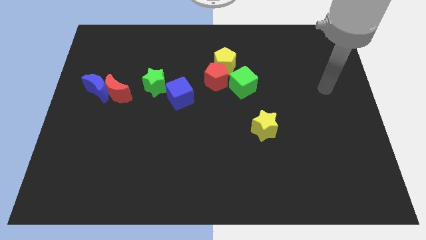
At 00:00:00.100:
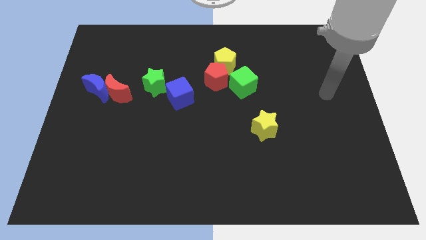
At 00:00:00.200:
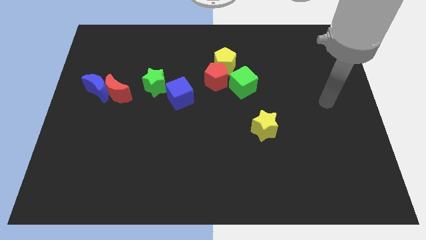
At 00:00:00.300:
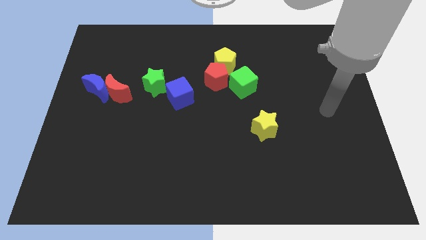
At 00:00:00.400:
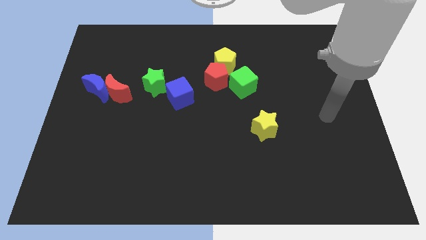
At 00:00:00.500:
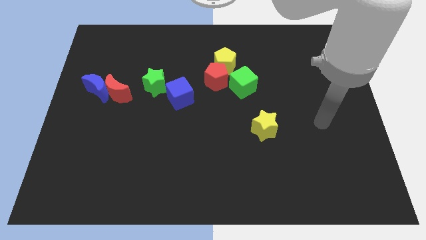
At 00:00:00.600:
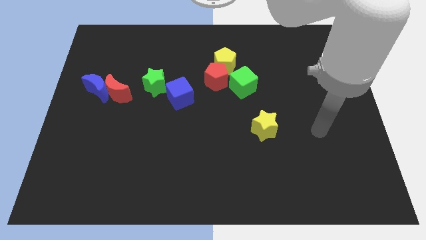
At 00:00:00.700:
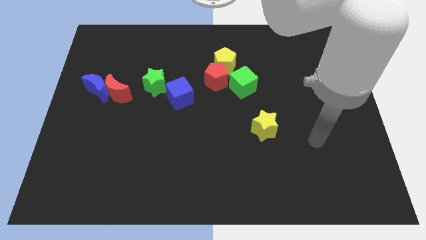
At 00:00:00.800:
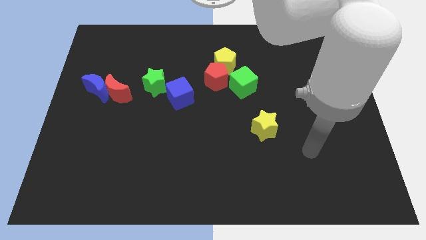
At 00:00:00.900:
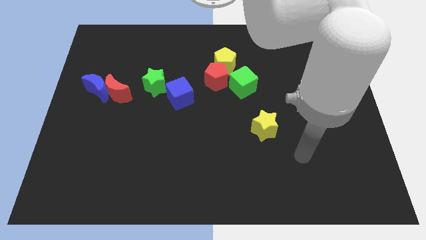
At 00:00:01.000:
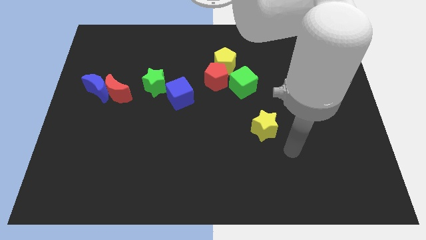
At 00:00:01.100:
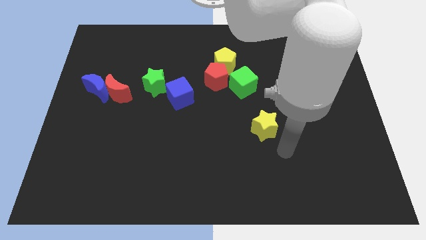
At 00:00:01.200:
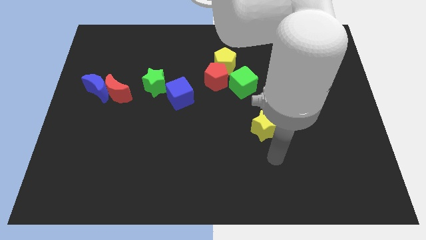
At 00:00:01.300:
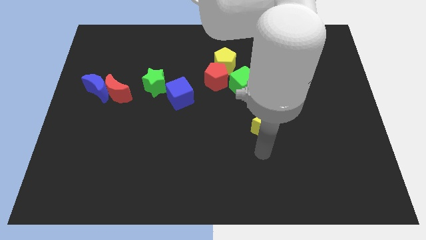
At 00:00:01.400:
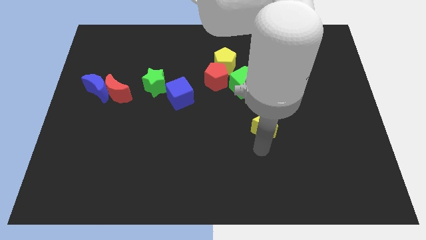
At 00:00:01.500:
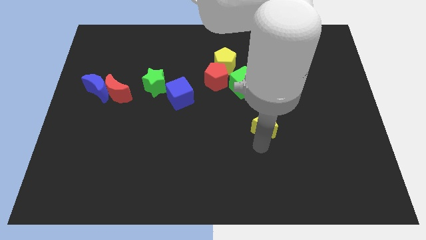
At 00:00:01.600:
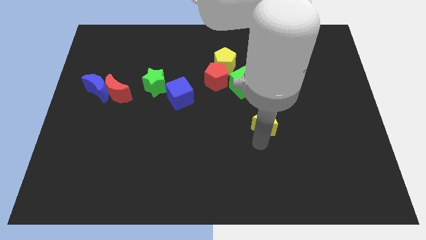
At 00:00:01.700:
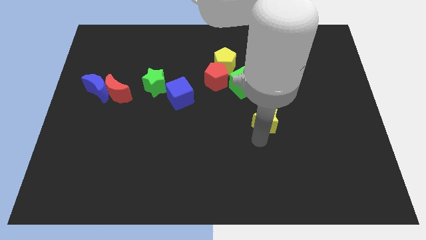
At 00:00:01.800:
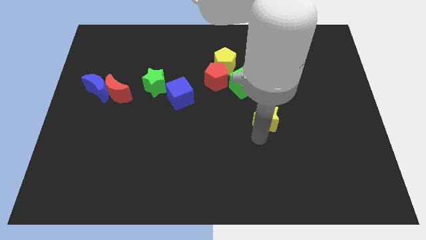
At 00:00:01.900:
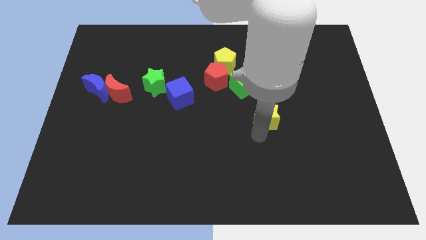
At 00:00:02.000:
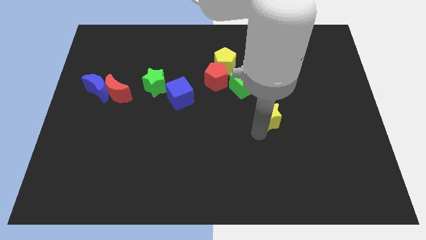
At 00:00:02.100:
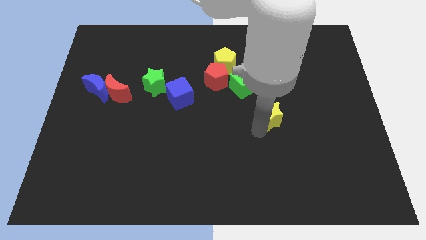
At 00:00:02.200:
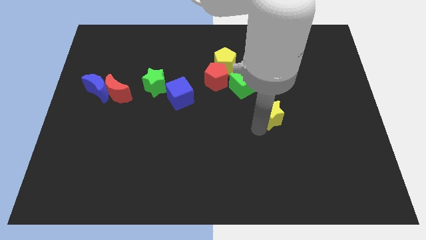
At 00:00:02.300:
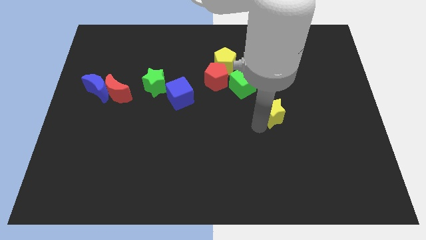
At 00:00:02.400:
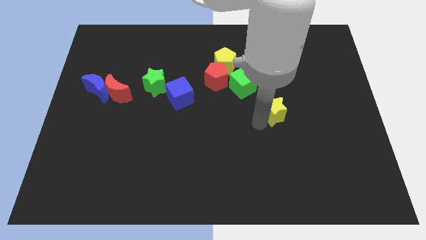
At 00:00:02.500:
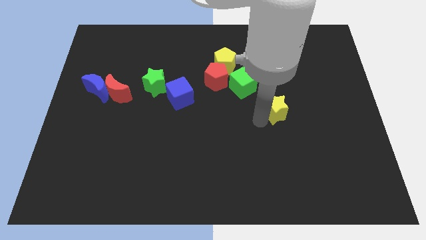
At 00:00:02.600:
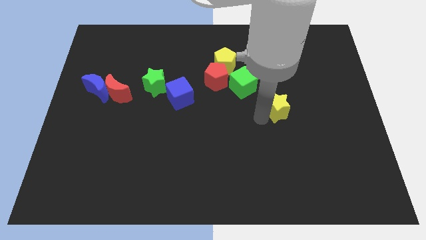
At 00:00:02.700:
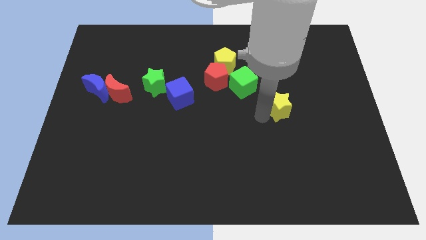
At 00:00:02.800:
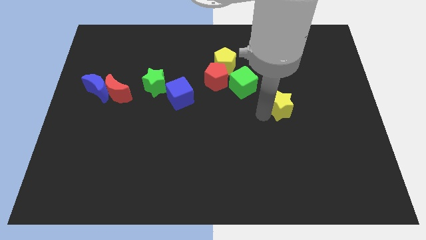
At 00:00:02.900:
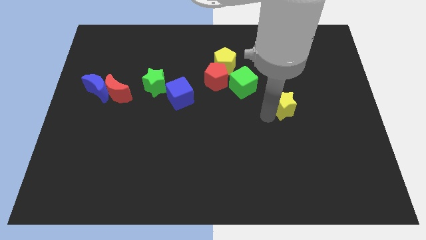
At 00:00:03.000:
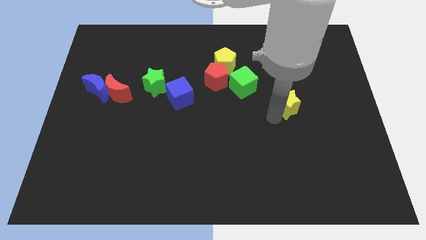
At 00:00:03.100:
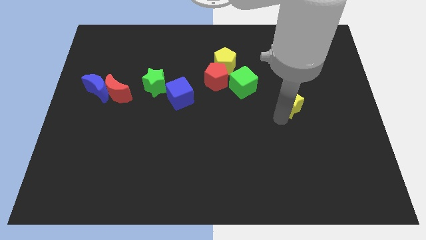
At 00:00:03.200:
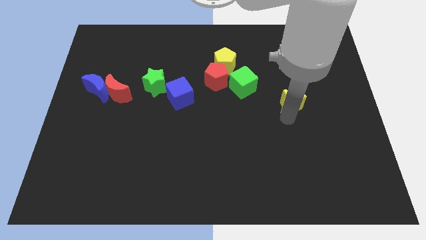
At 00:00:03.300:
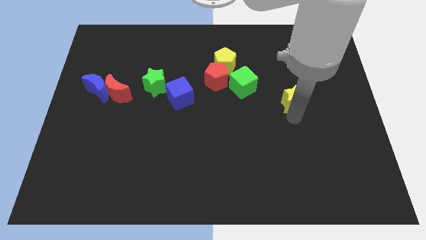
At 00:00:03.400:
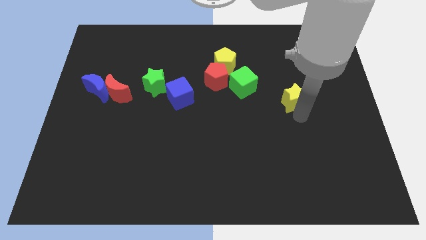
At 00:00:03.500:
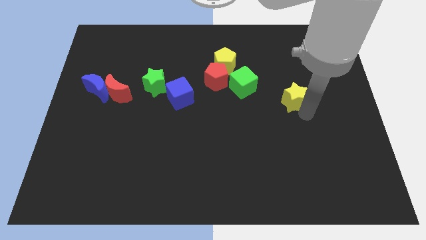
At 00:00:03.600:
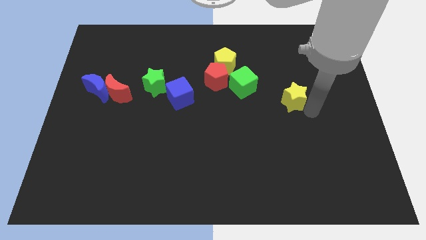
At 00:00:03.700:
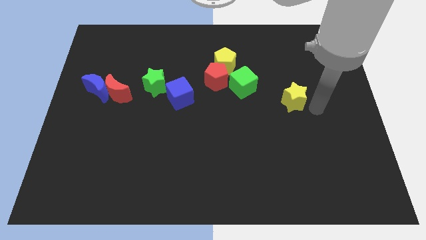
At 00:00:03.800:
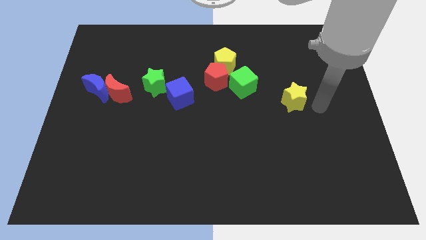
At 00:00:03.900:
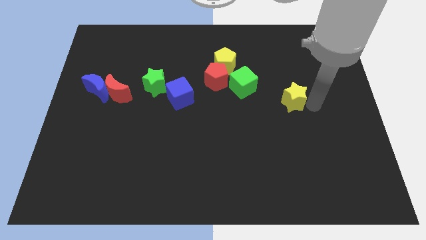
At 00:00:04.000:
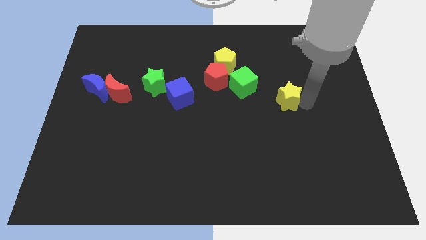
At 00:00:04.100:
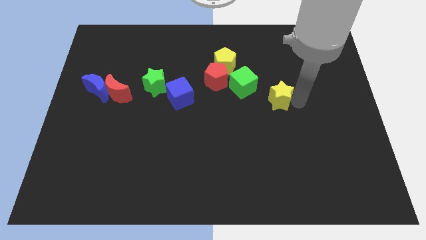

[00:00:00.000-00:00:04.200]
slightly push the yellow star upwards

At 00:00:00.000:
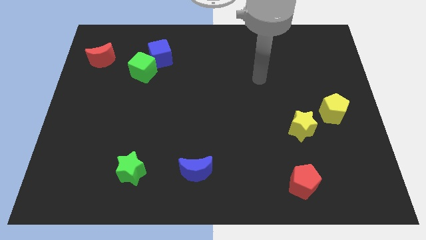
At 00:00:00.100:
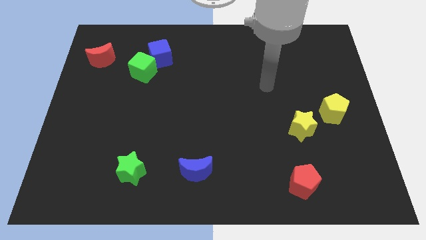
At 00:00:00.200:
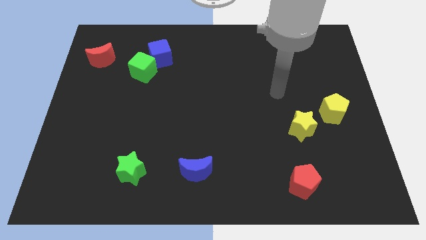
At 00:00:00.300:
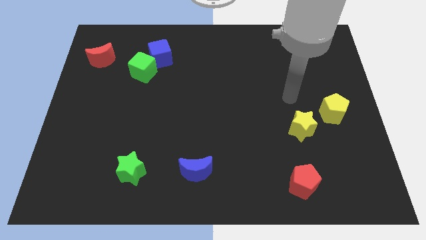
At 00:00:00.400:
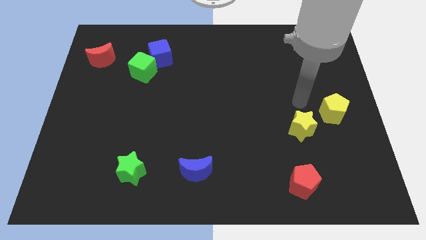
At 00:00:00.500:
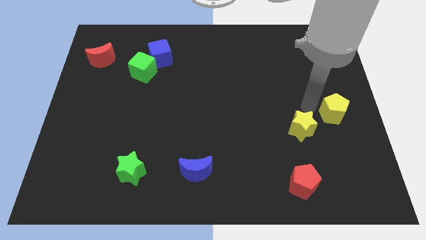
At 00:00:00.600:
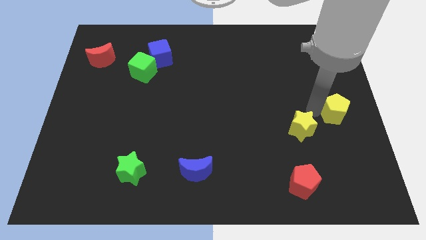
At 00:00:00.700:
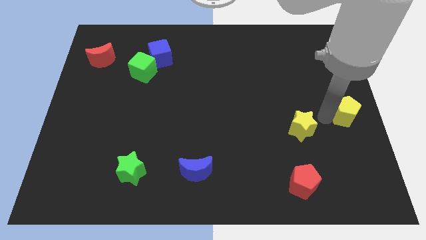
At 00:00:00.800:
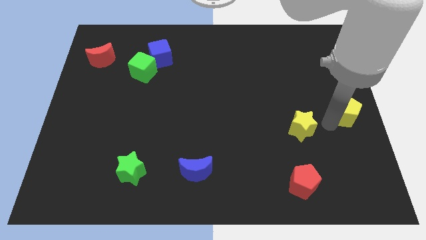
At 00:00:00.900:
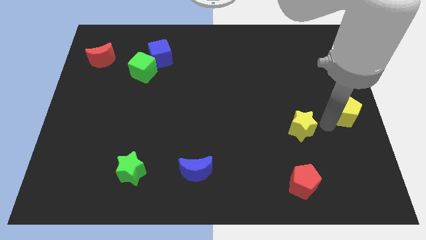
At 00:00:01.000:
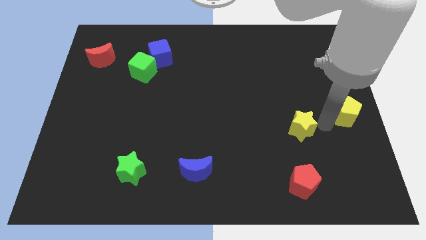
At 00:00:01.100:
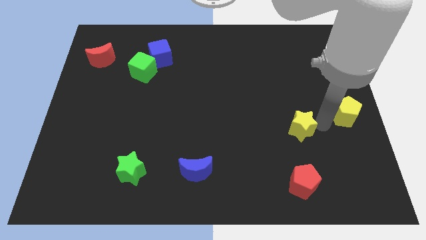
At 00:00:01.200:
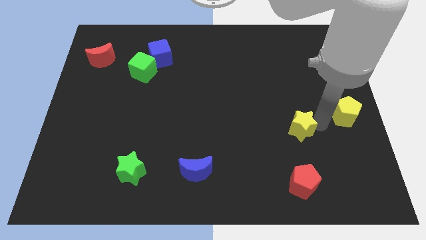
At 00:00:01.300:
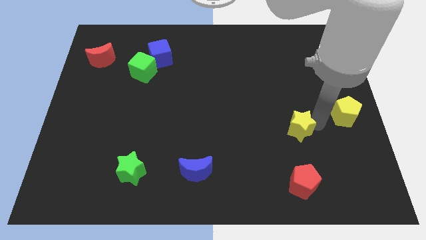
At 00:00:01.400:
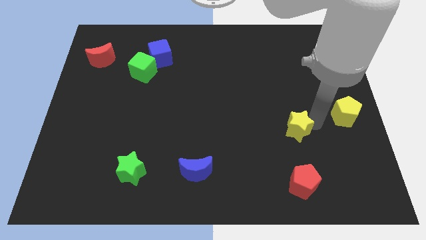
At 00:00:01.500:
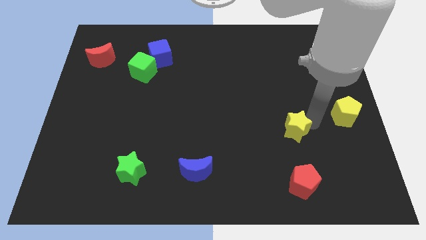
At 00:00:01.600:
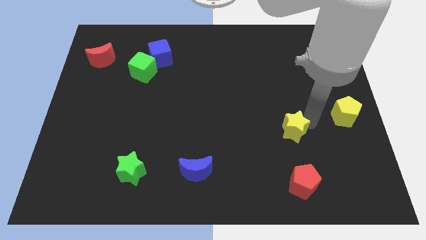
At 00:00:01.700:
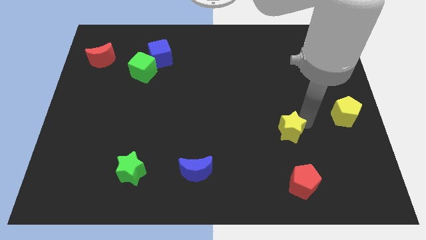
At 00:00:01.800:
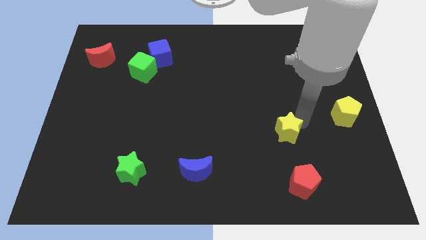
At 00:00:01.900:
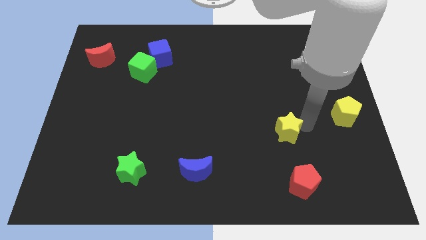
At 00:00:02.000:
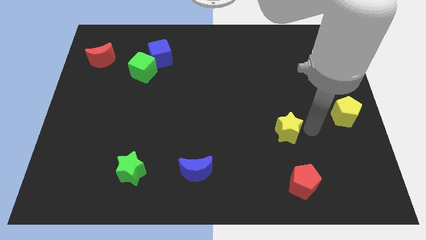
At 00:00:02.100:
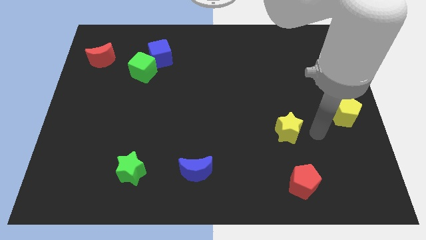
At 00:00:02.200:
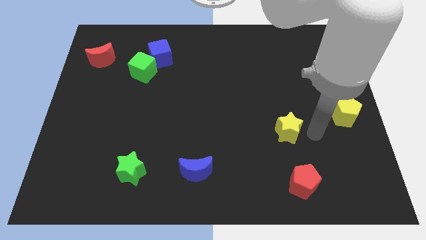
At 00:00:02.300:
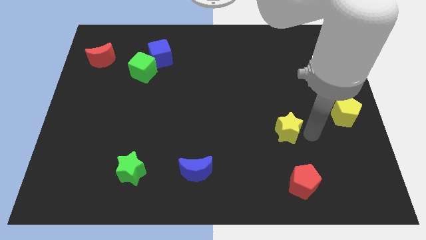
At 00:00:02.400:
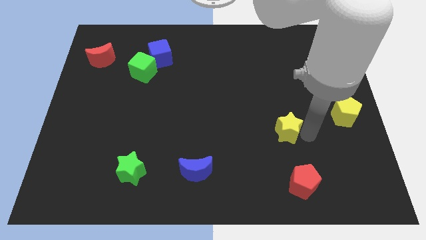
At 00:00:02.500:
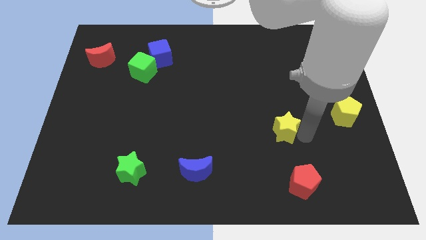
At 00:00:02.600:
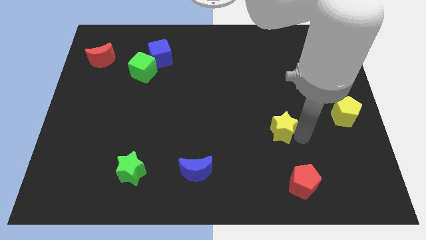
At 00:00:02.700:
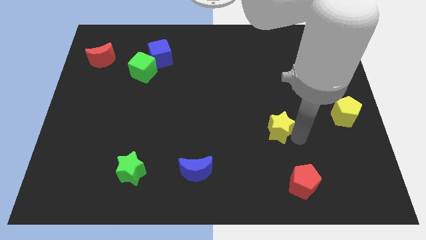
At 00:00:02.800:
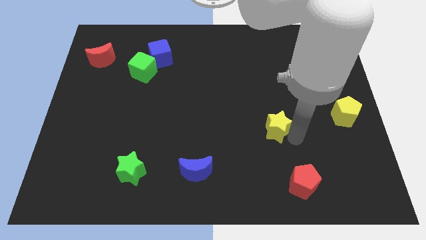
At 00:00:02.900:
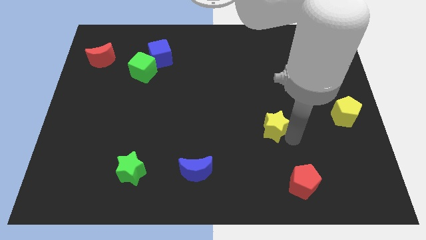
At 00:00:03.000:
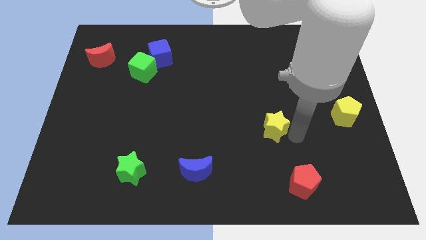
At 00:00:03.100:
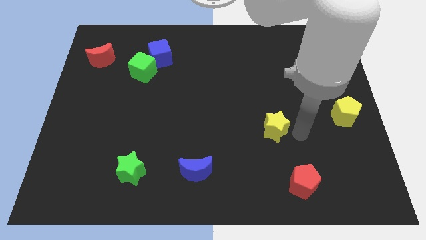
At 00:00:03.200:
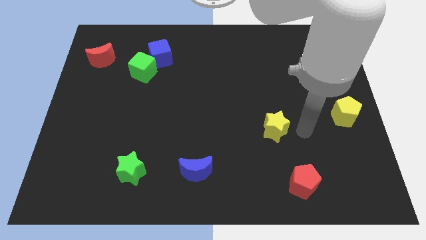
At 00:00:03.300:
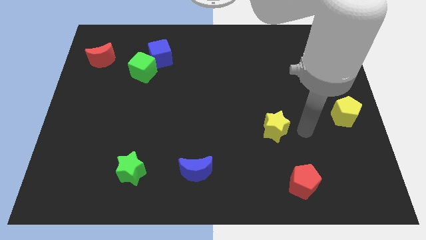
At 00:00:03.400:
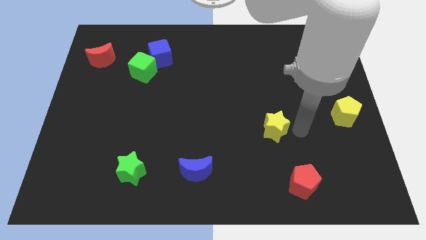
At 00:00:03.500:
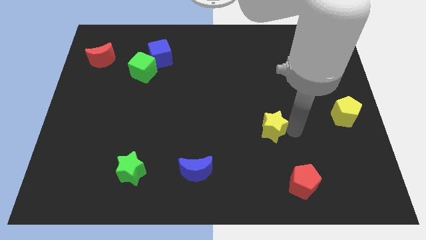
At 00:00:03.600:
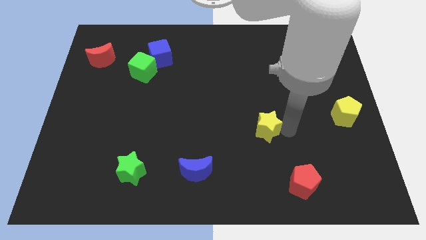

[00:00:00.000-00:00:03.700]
push the yellow star left a bit
